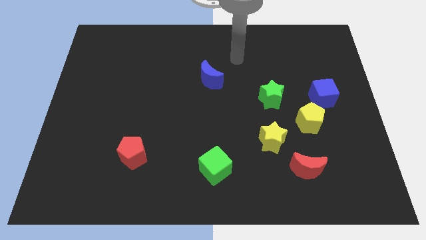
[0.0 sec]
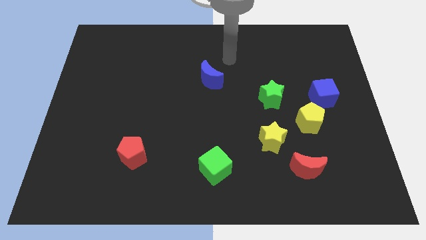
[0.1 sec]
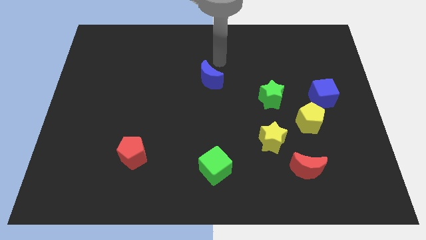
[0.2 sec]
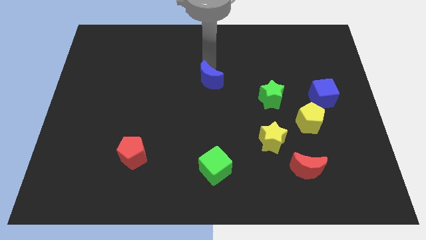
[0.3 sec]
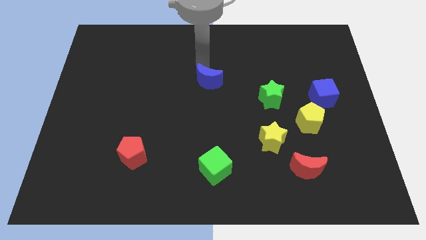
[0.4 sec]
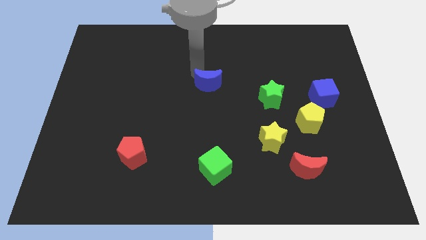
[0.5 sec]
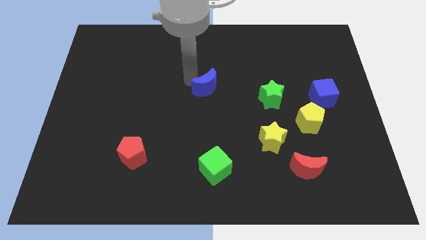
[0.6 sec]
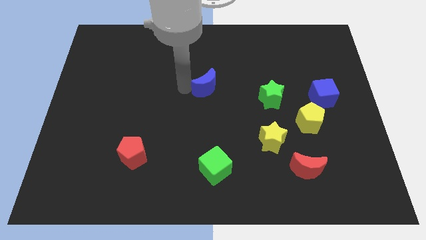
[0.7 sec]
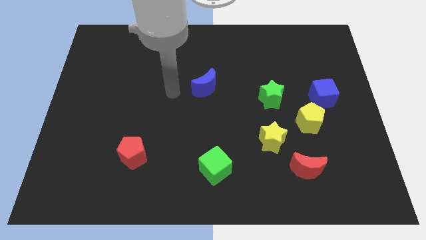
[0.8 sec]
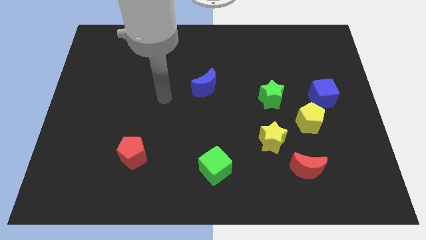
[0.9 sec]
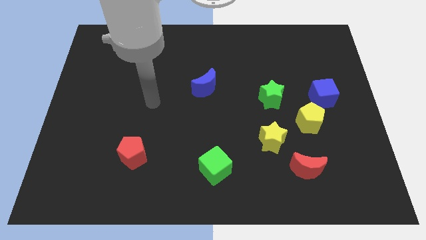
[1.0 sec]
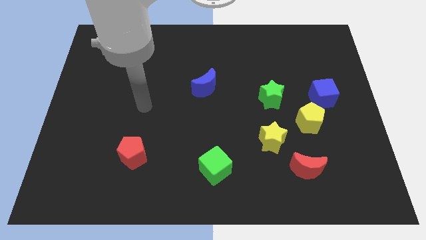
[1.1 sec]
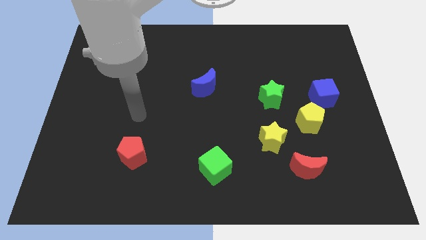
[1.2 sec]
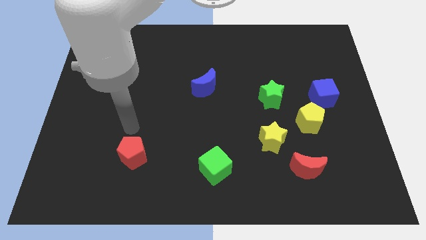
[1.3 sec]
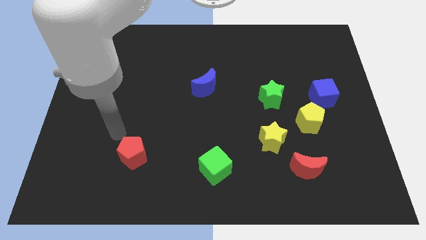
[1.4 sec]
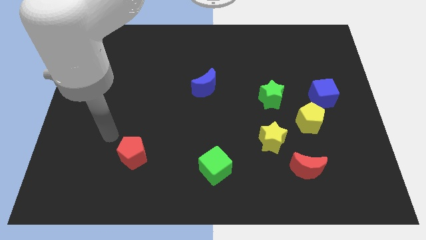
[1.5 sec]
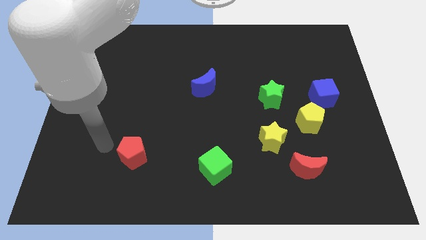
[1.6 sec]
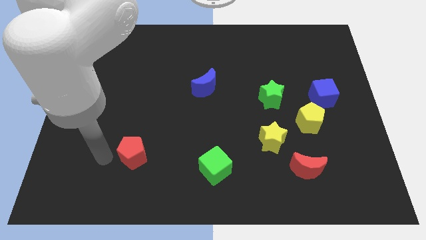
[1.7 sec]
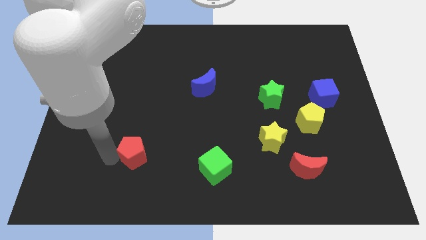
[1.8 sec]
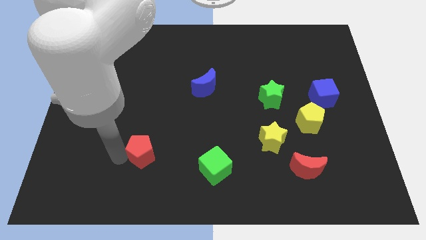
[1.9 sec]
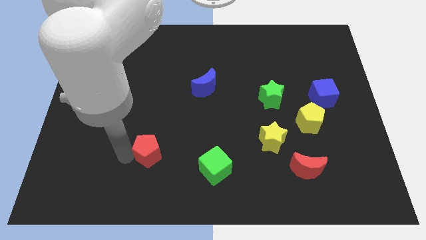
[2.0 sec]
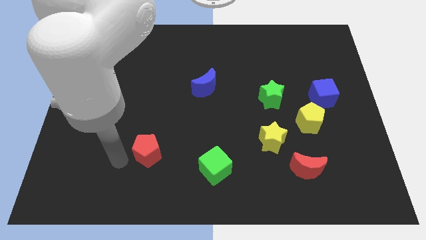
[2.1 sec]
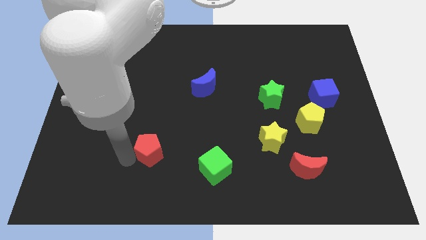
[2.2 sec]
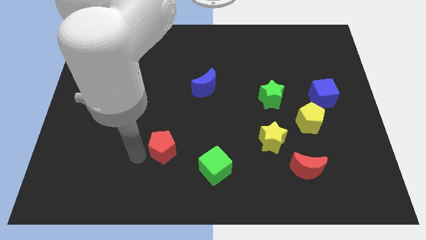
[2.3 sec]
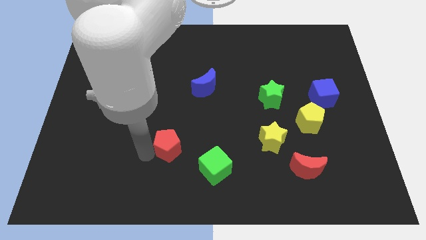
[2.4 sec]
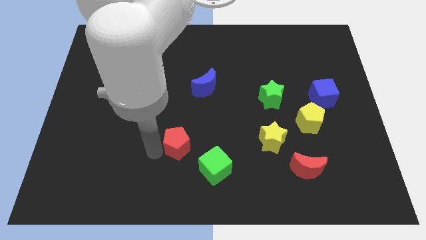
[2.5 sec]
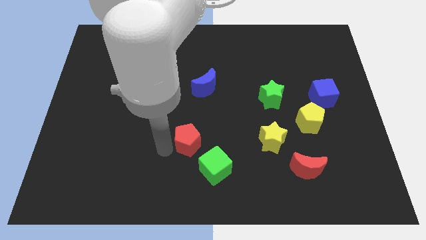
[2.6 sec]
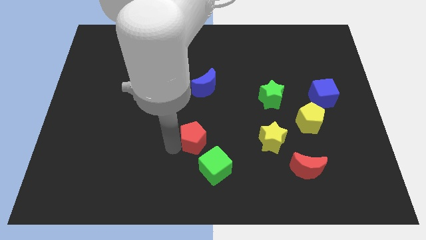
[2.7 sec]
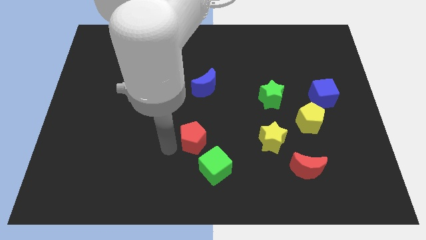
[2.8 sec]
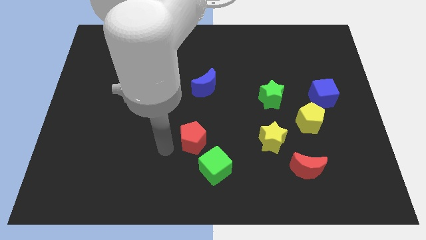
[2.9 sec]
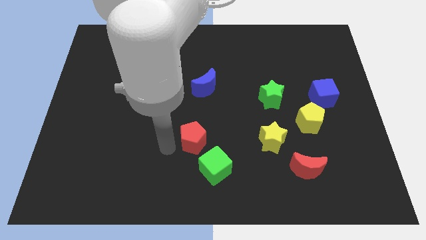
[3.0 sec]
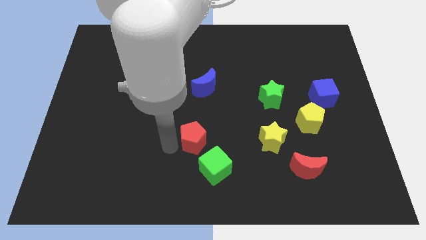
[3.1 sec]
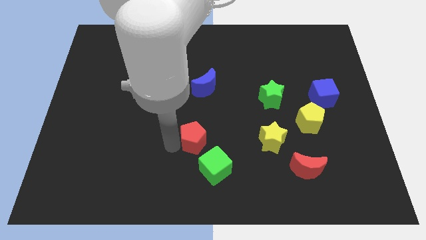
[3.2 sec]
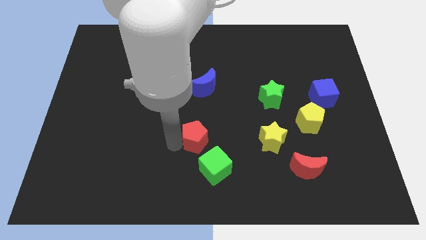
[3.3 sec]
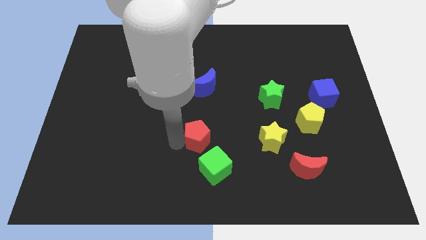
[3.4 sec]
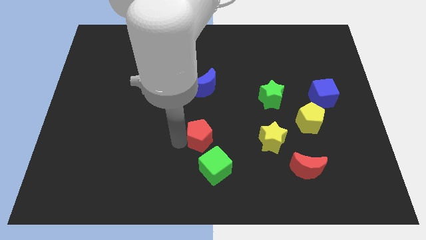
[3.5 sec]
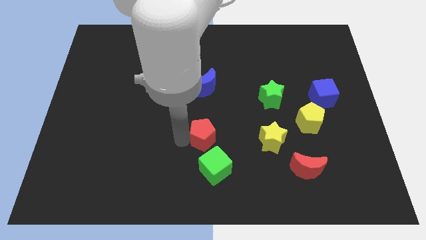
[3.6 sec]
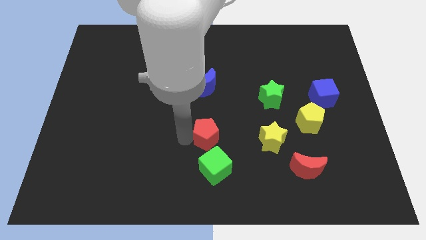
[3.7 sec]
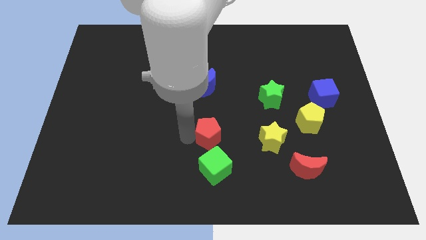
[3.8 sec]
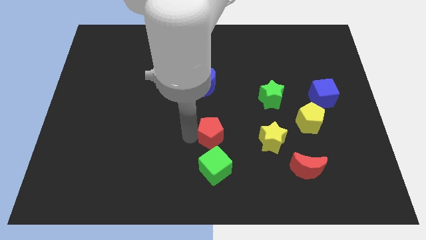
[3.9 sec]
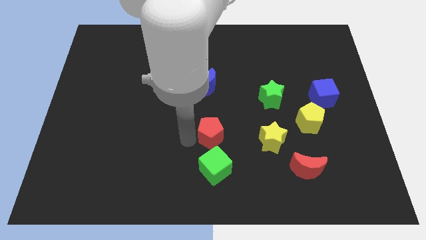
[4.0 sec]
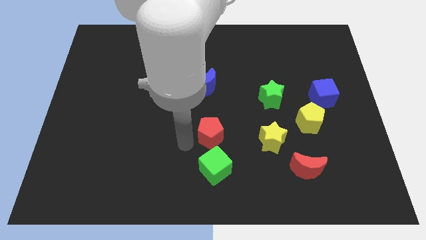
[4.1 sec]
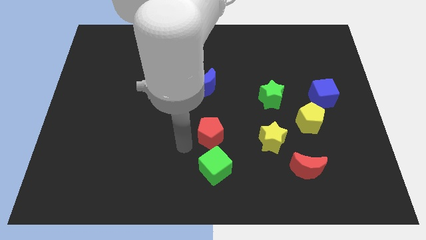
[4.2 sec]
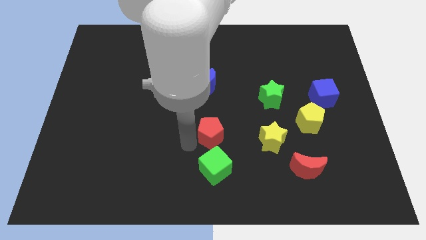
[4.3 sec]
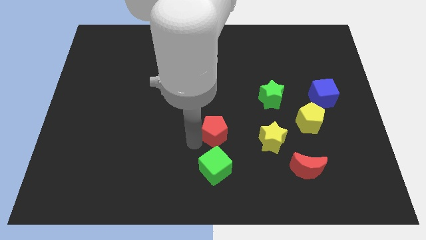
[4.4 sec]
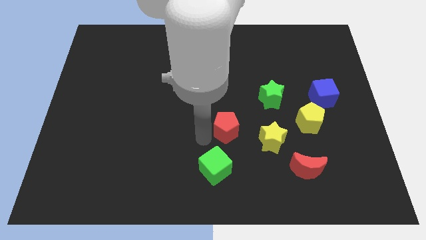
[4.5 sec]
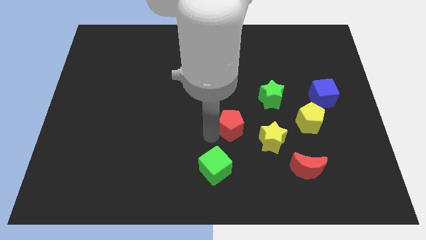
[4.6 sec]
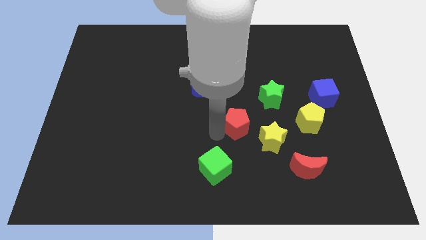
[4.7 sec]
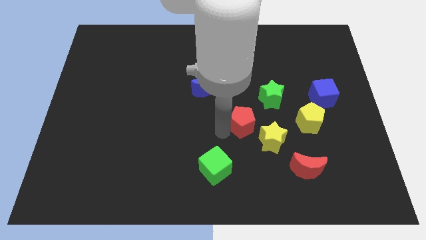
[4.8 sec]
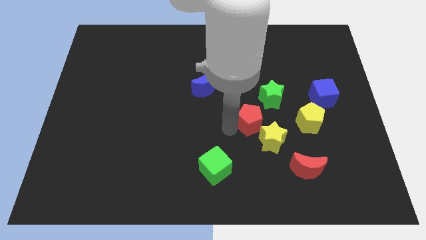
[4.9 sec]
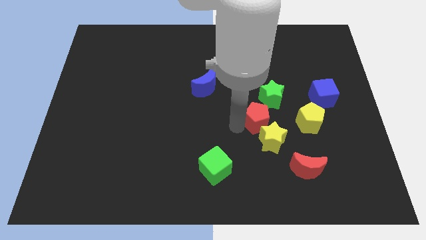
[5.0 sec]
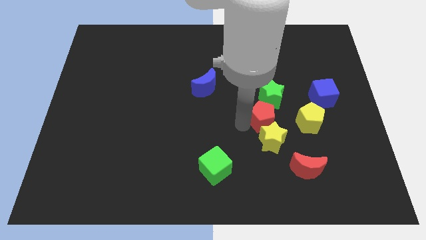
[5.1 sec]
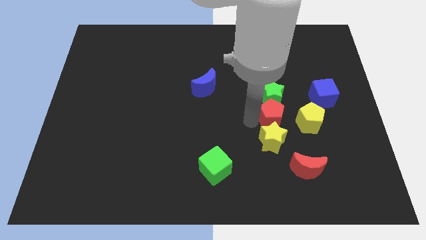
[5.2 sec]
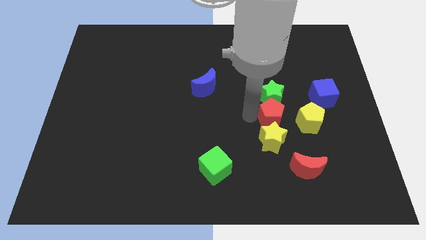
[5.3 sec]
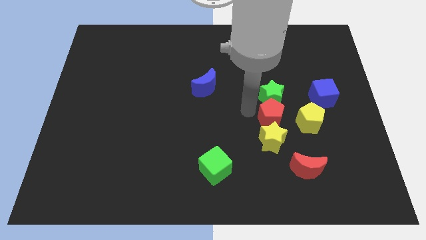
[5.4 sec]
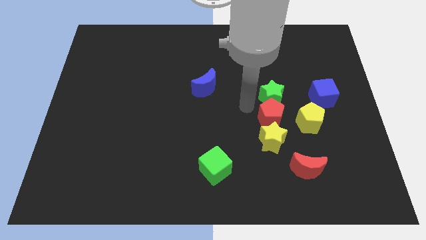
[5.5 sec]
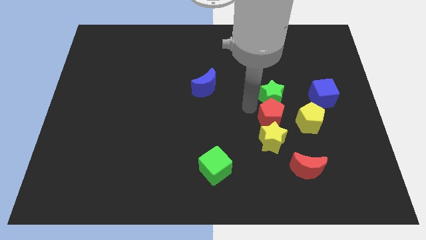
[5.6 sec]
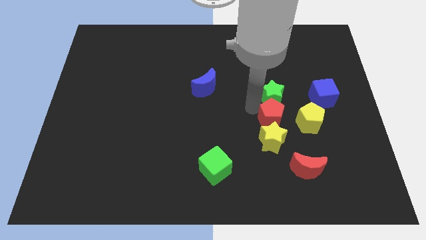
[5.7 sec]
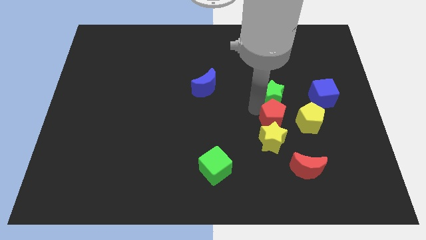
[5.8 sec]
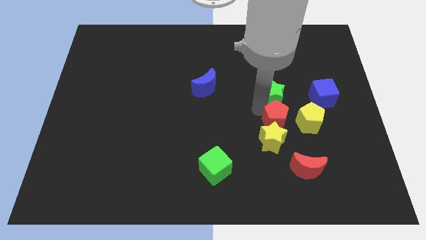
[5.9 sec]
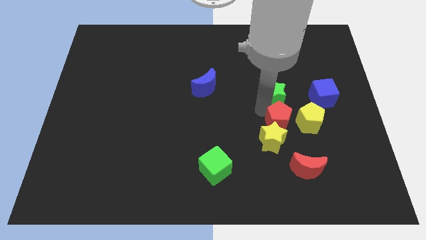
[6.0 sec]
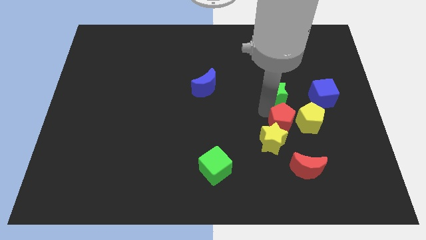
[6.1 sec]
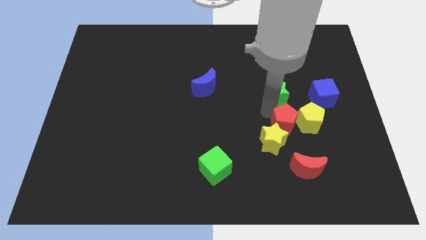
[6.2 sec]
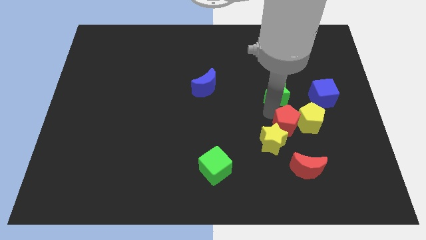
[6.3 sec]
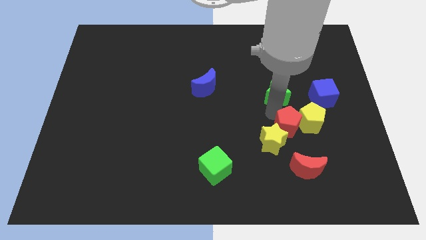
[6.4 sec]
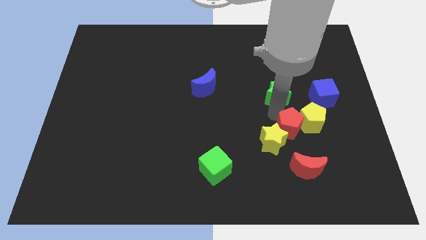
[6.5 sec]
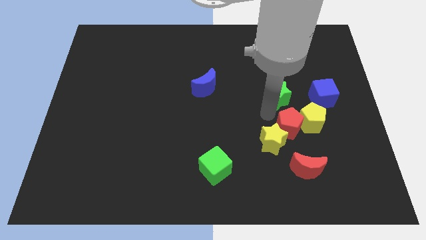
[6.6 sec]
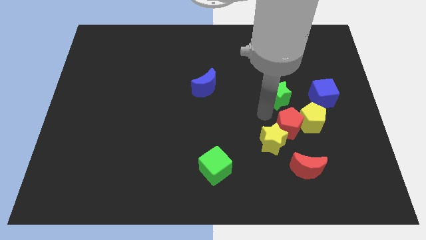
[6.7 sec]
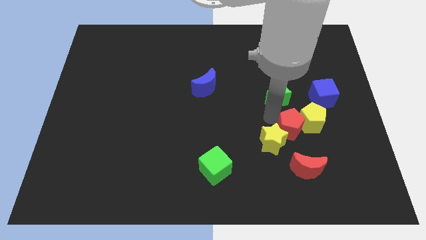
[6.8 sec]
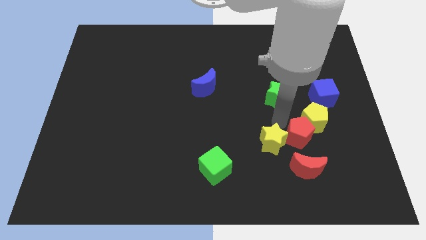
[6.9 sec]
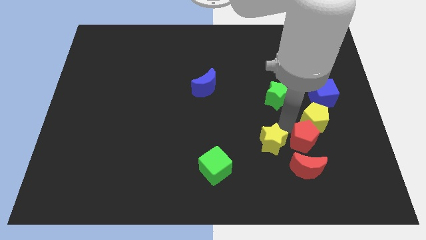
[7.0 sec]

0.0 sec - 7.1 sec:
push the red pentagon diagonally up and to the right of the red moon

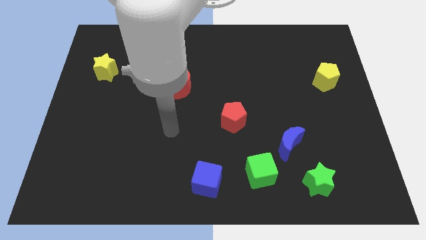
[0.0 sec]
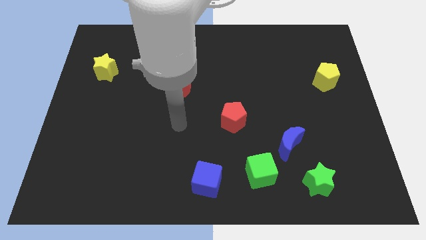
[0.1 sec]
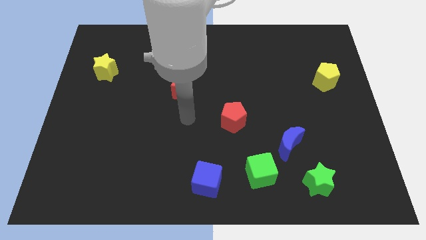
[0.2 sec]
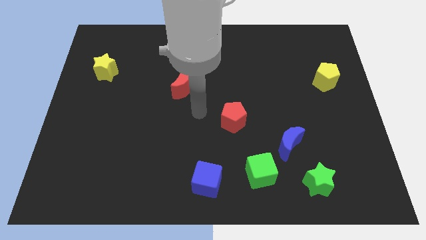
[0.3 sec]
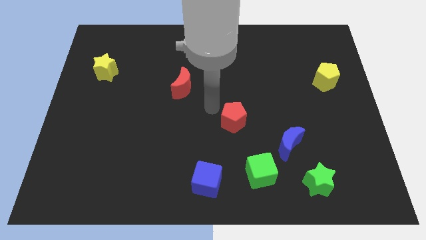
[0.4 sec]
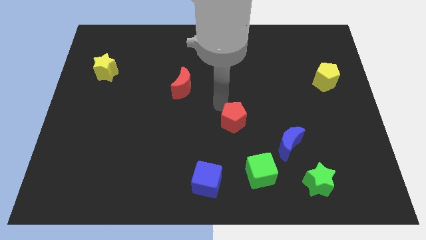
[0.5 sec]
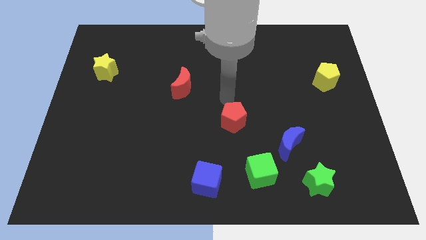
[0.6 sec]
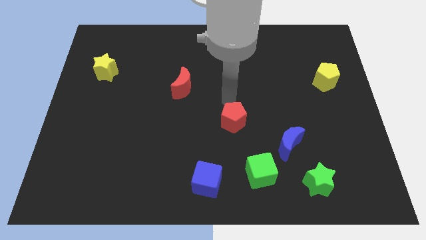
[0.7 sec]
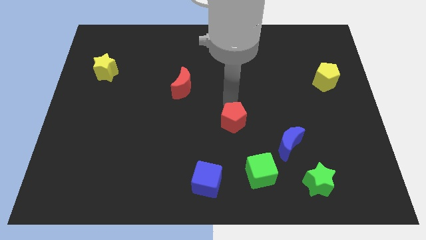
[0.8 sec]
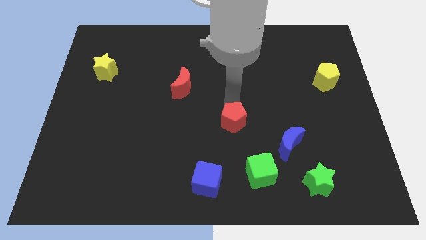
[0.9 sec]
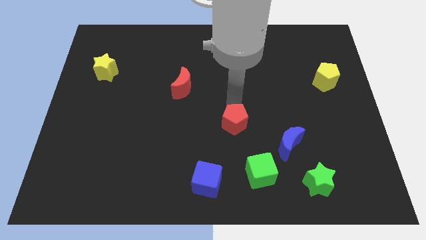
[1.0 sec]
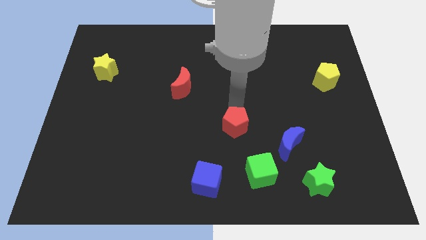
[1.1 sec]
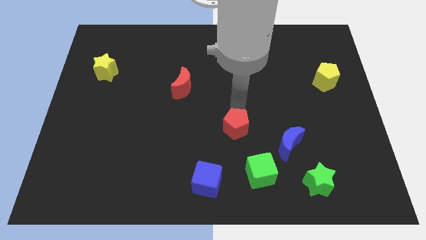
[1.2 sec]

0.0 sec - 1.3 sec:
move the red pentagon to the left side of the blue moon
